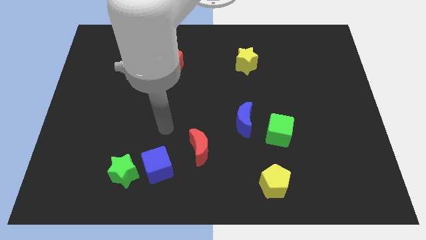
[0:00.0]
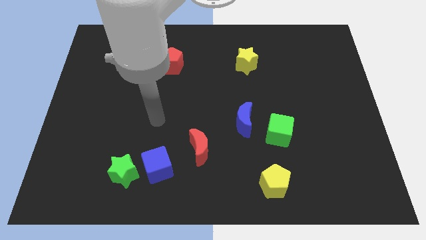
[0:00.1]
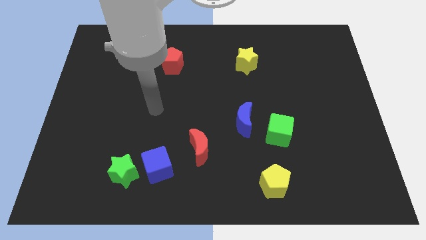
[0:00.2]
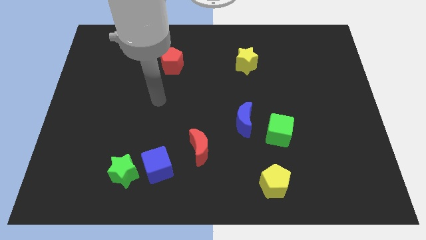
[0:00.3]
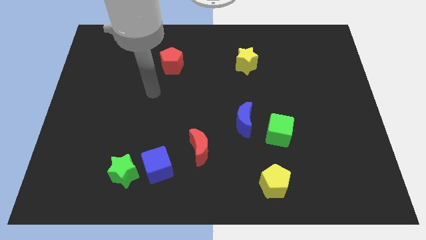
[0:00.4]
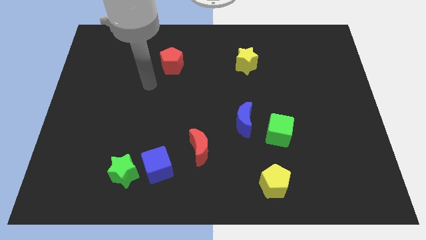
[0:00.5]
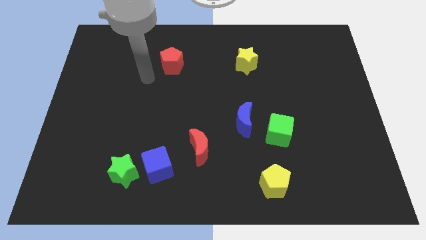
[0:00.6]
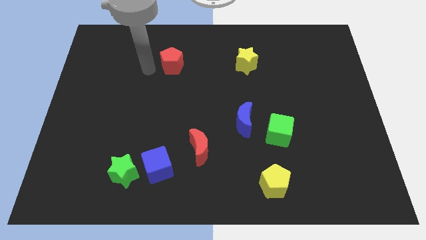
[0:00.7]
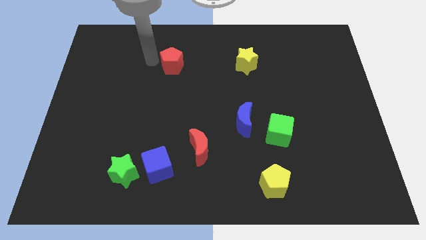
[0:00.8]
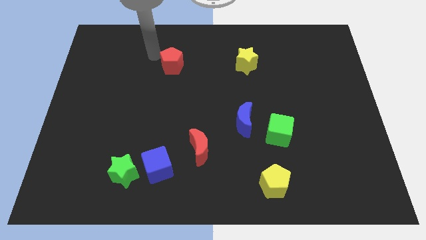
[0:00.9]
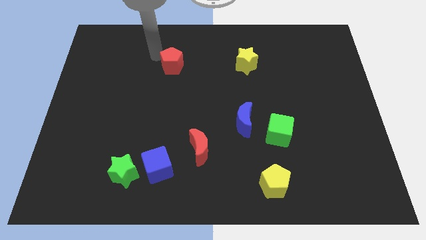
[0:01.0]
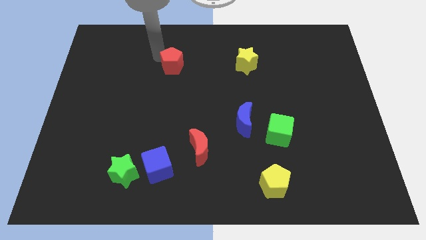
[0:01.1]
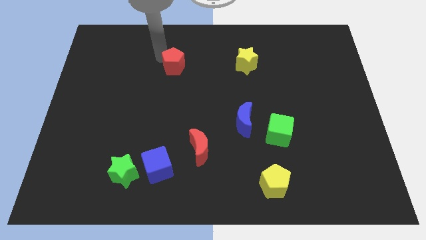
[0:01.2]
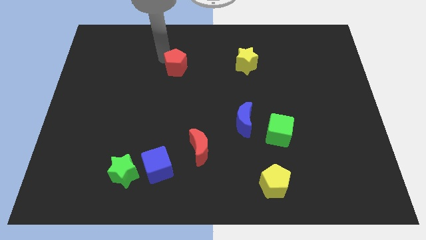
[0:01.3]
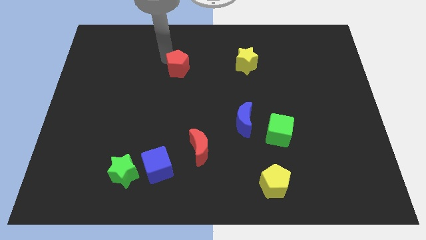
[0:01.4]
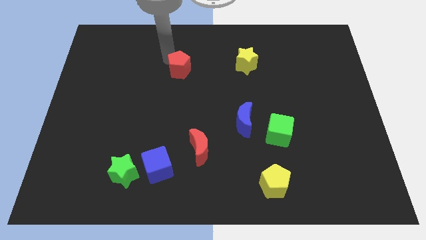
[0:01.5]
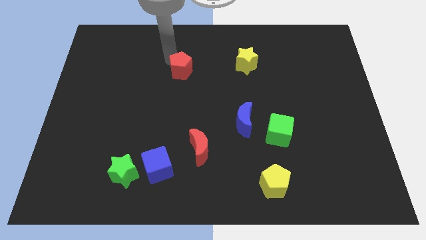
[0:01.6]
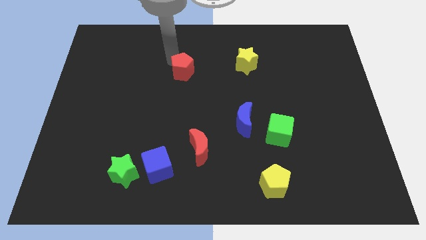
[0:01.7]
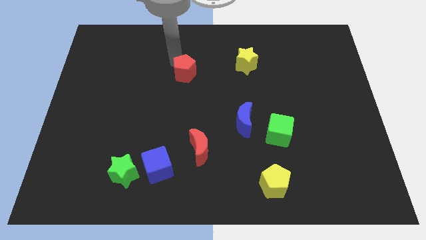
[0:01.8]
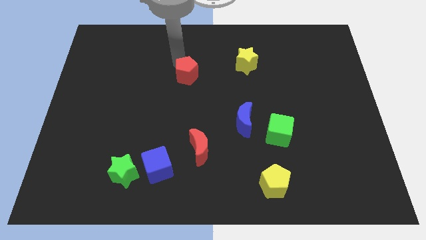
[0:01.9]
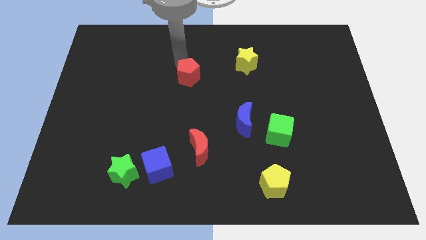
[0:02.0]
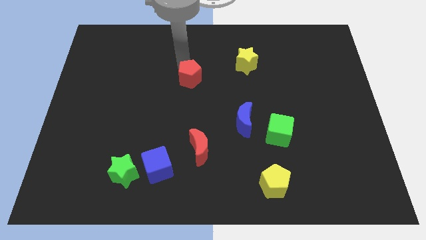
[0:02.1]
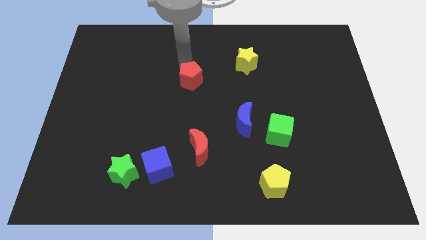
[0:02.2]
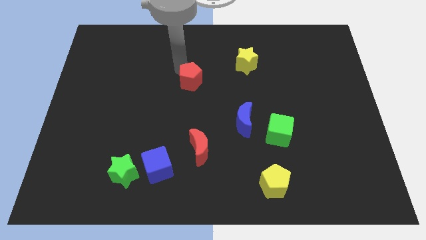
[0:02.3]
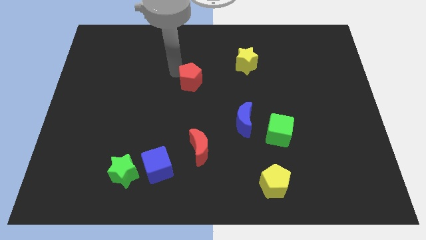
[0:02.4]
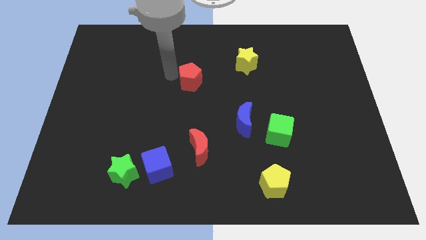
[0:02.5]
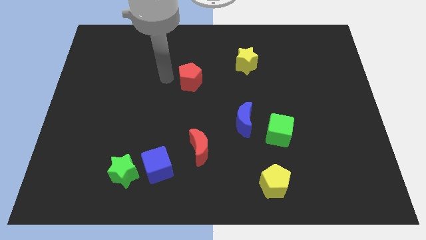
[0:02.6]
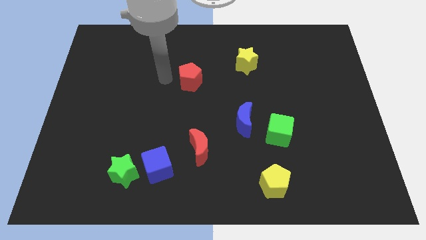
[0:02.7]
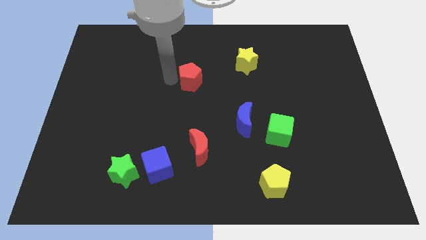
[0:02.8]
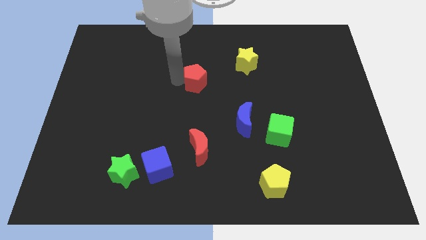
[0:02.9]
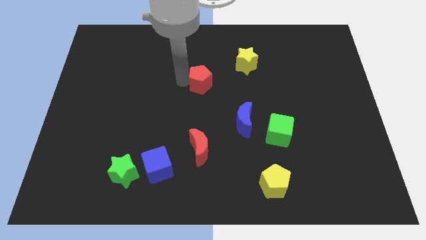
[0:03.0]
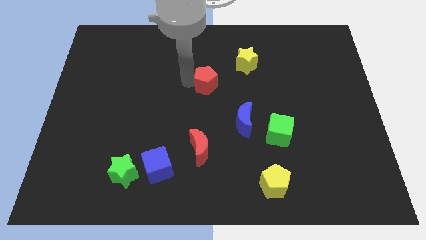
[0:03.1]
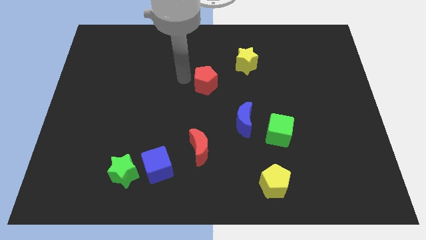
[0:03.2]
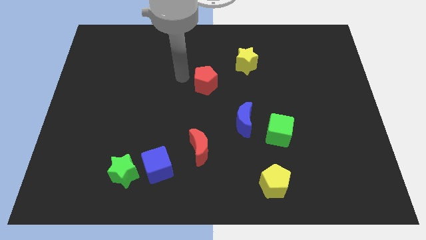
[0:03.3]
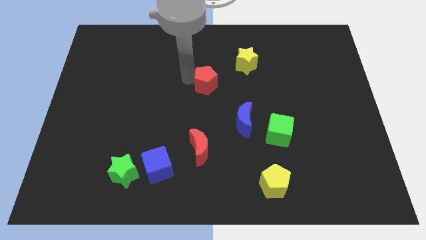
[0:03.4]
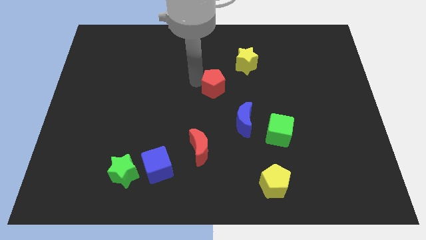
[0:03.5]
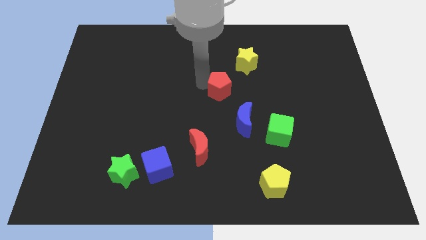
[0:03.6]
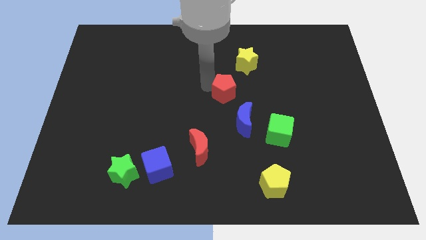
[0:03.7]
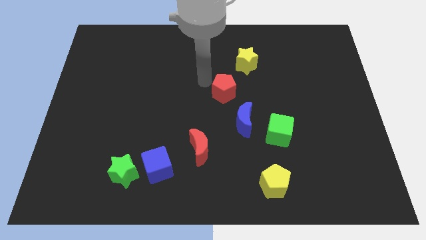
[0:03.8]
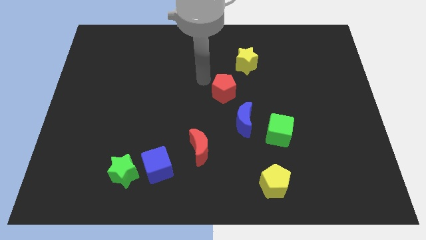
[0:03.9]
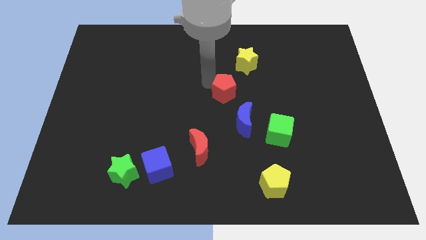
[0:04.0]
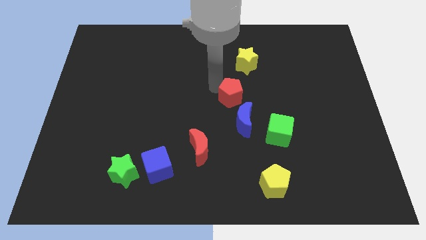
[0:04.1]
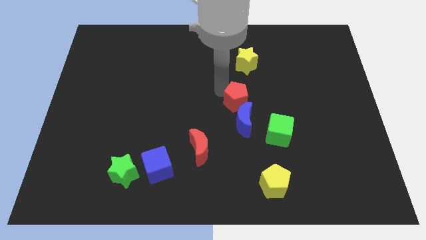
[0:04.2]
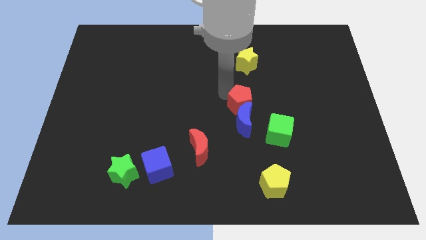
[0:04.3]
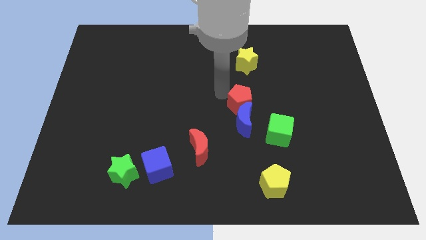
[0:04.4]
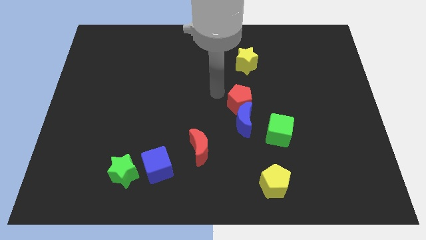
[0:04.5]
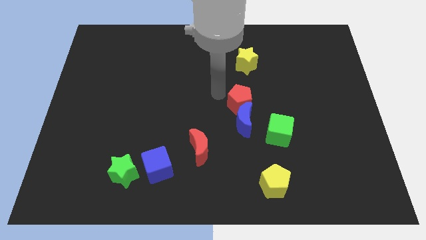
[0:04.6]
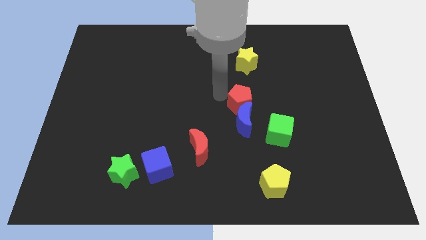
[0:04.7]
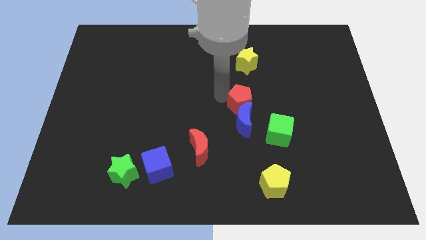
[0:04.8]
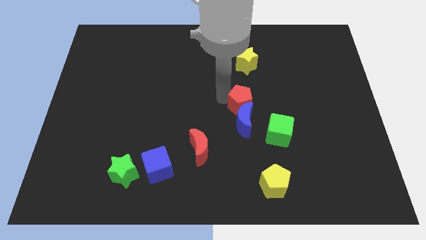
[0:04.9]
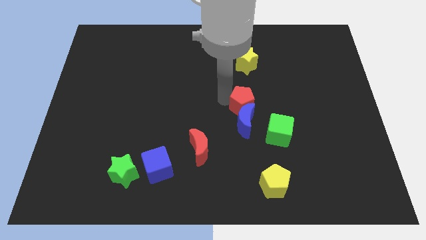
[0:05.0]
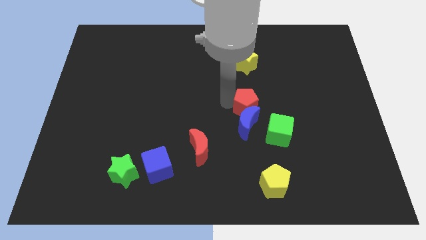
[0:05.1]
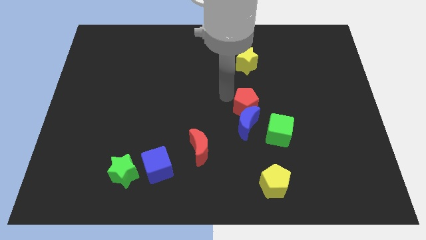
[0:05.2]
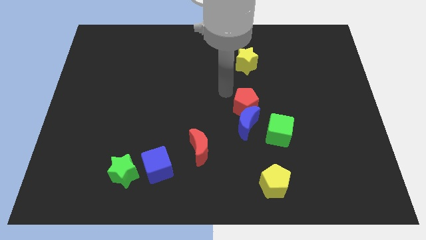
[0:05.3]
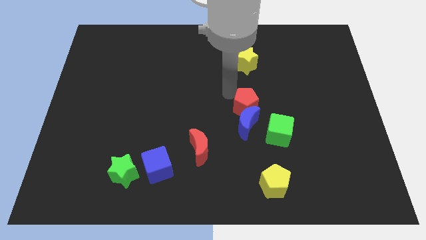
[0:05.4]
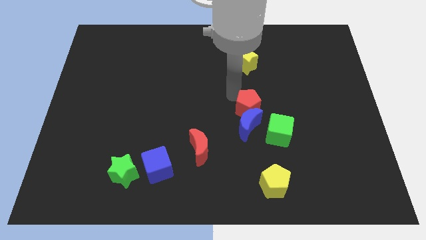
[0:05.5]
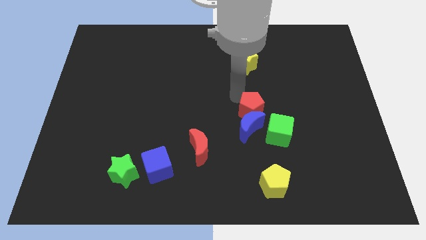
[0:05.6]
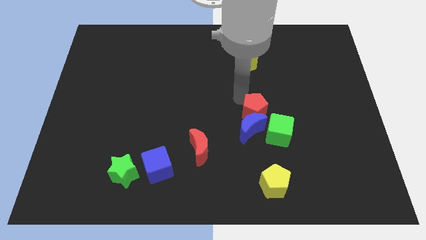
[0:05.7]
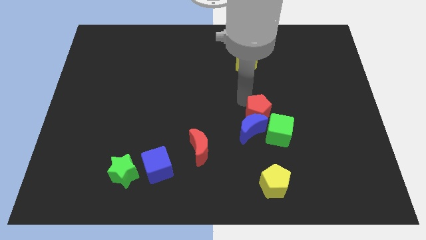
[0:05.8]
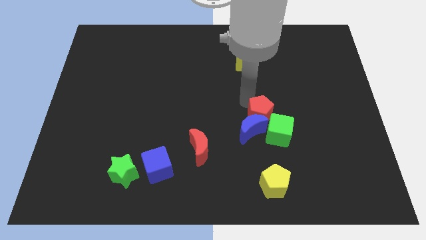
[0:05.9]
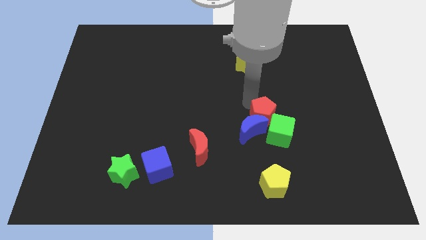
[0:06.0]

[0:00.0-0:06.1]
push the red pentagon to the green cube

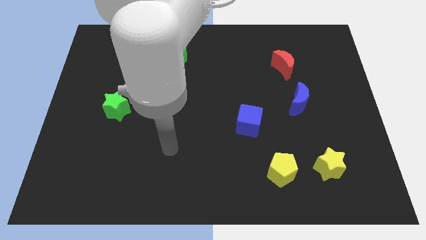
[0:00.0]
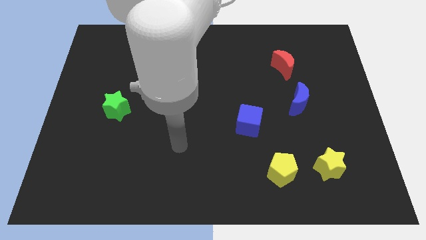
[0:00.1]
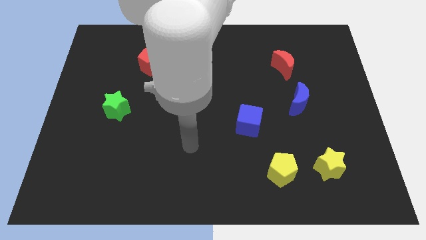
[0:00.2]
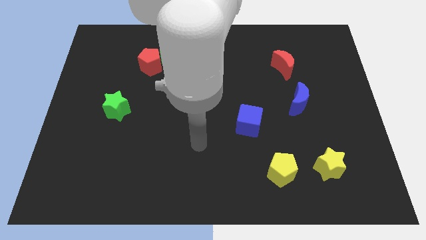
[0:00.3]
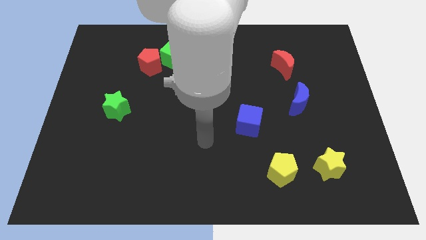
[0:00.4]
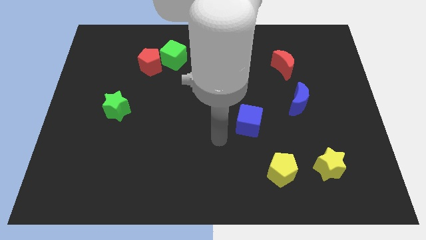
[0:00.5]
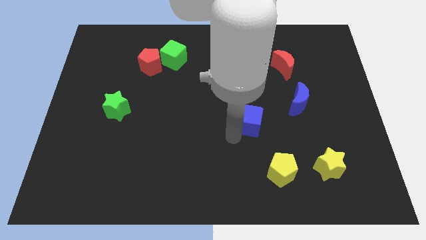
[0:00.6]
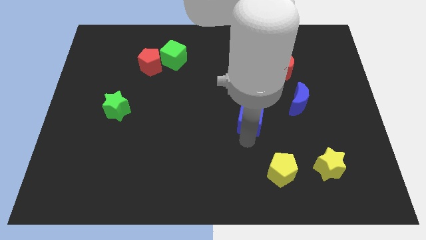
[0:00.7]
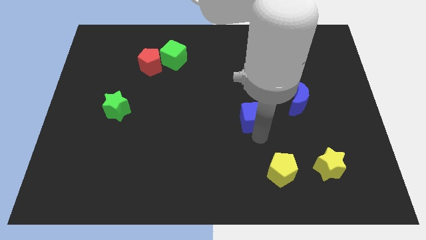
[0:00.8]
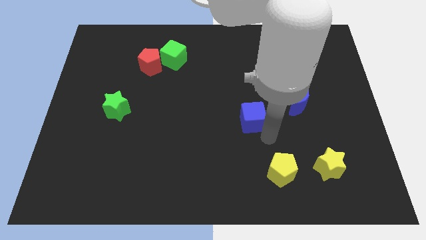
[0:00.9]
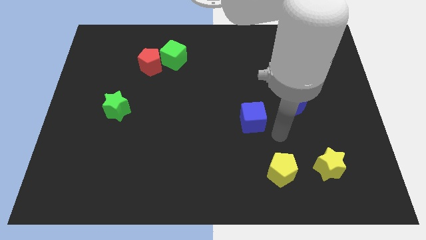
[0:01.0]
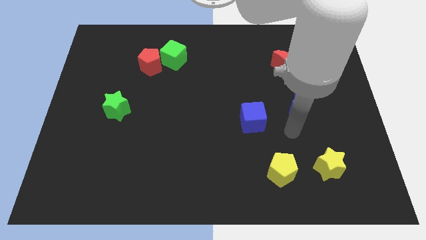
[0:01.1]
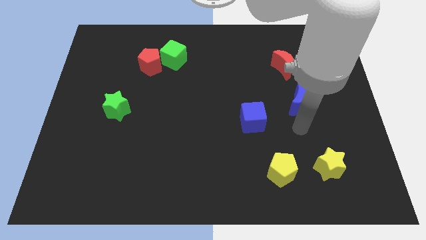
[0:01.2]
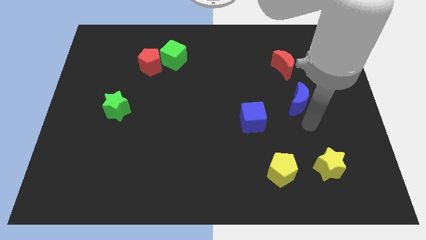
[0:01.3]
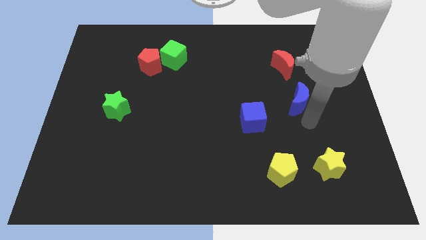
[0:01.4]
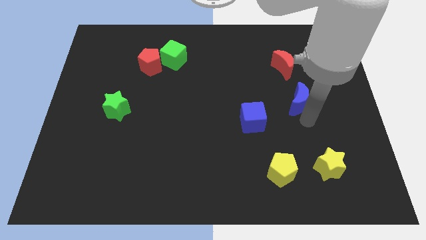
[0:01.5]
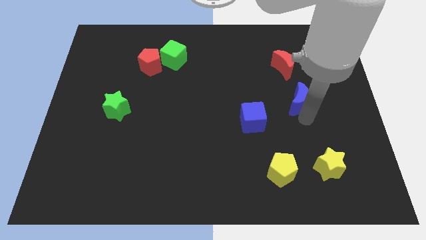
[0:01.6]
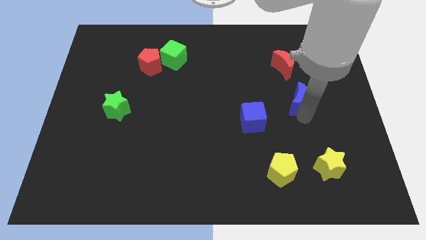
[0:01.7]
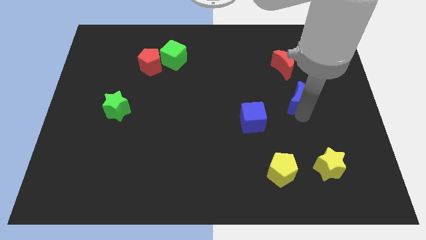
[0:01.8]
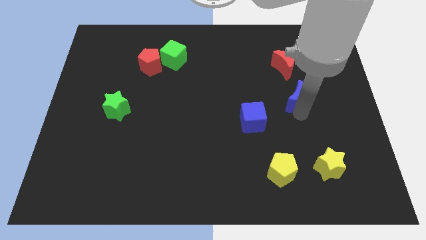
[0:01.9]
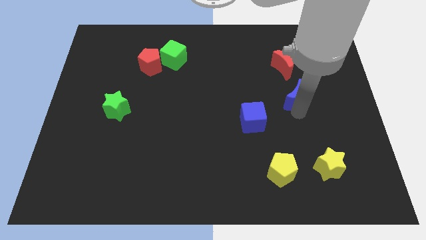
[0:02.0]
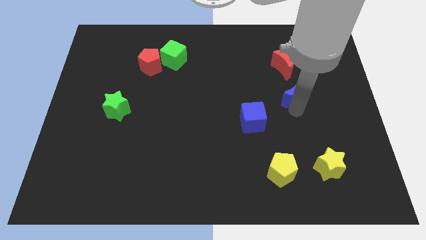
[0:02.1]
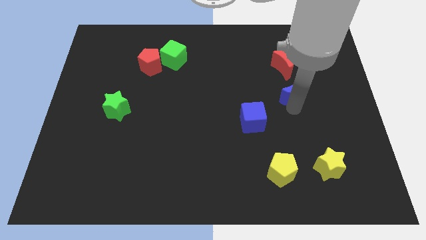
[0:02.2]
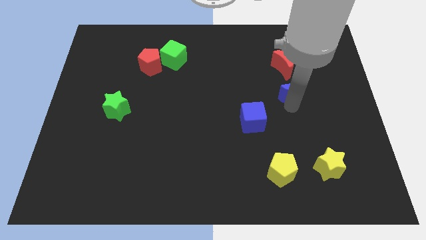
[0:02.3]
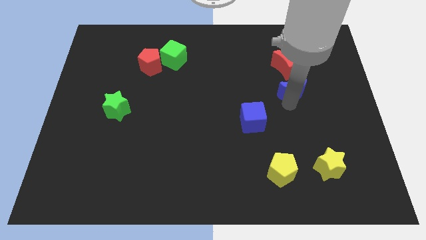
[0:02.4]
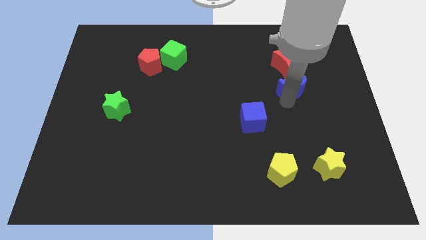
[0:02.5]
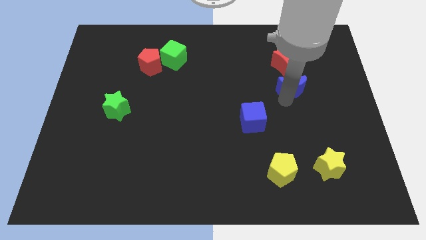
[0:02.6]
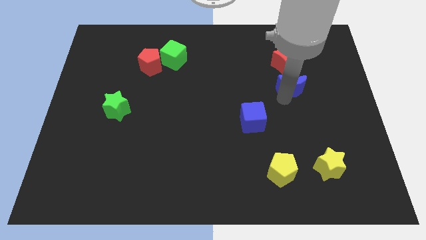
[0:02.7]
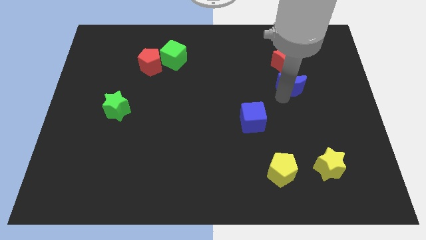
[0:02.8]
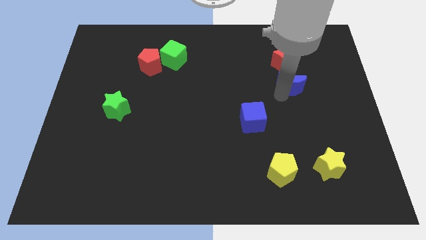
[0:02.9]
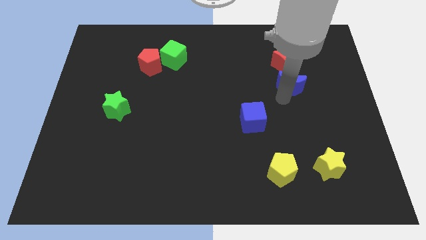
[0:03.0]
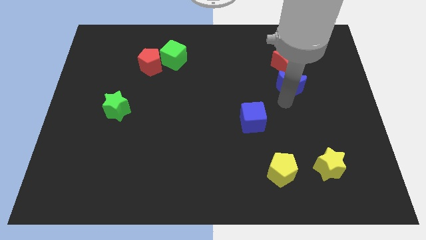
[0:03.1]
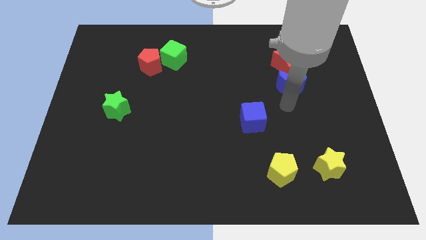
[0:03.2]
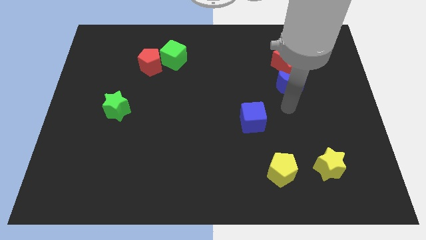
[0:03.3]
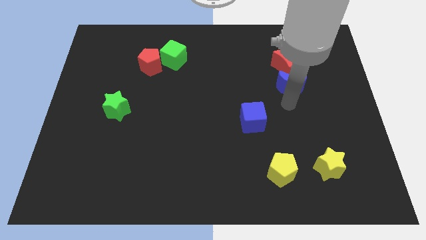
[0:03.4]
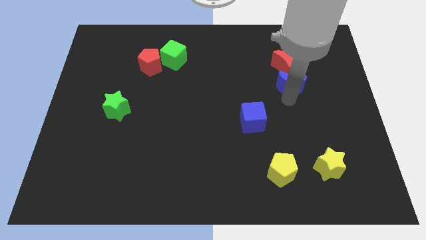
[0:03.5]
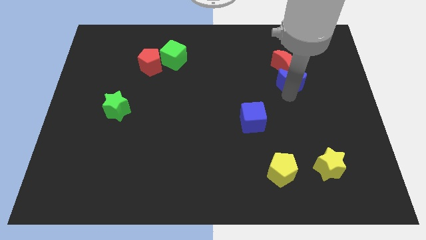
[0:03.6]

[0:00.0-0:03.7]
put the blue moon to the red moon
